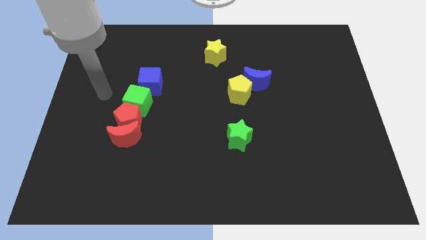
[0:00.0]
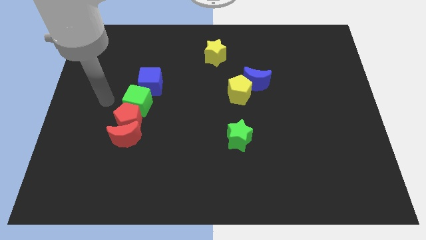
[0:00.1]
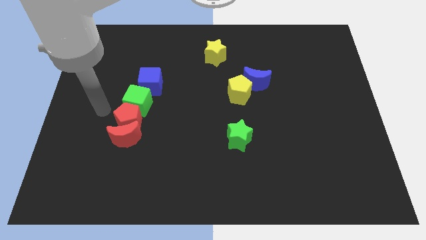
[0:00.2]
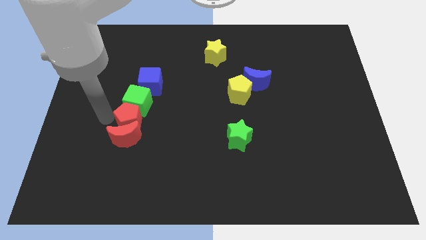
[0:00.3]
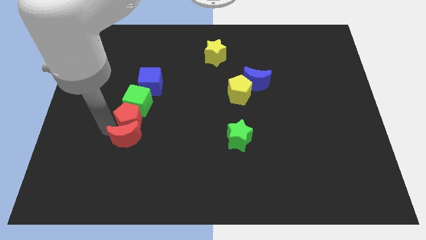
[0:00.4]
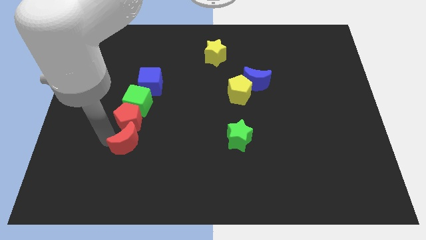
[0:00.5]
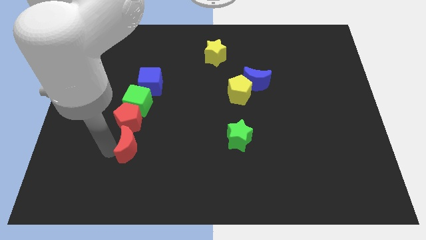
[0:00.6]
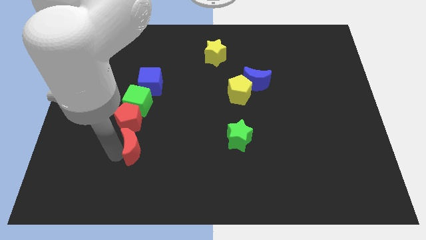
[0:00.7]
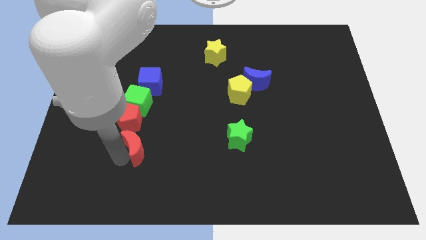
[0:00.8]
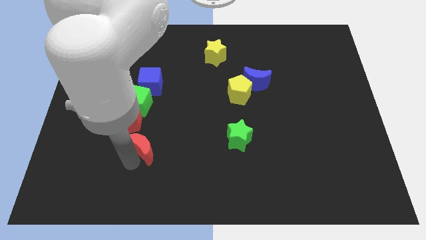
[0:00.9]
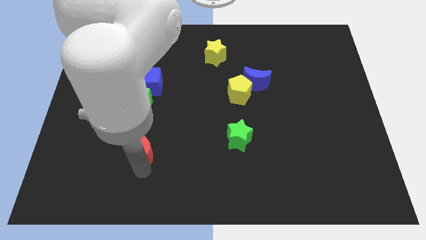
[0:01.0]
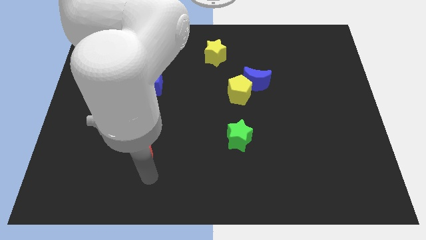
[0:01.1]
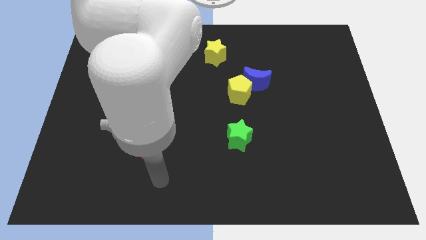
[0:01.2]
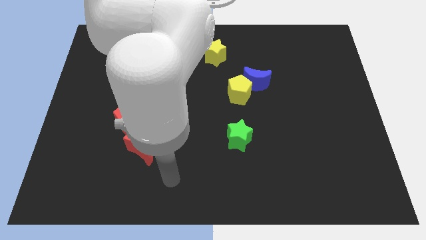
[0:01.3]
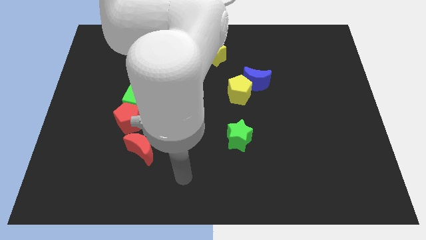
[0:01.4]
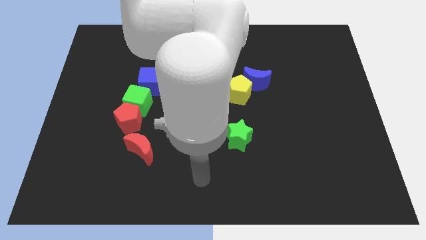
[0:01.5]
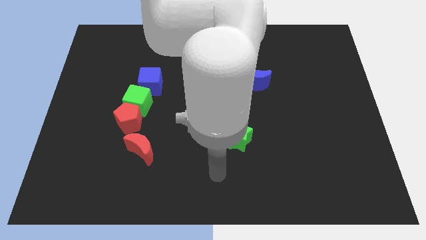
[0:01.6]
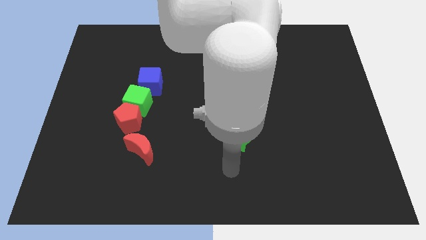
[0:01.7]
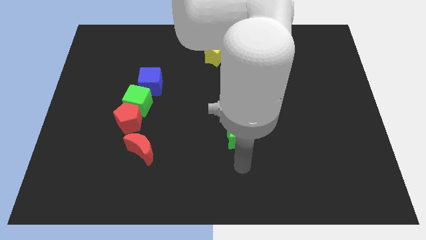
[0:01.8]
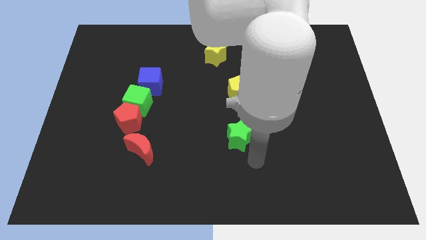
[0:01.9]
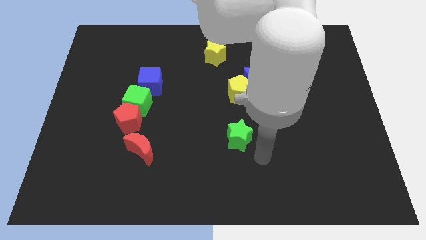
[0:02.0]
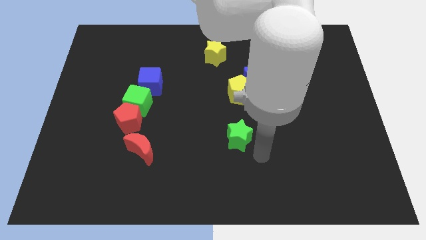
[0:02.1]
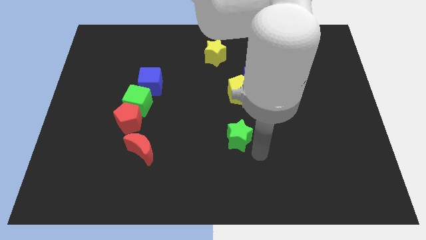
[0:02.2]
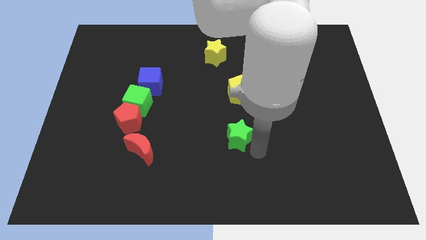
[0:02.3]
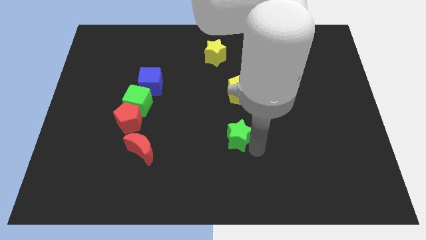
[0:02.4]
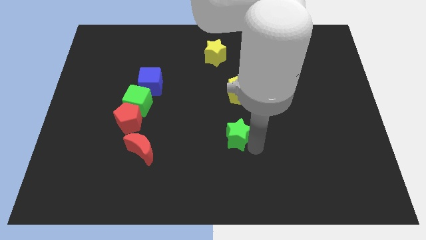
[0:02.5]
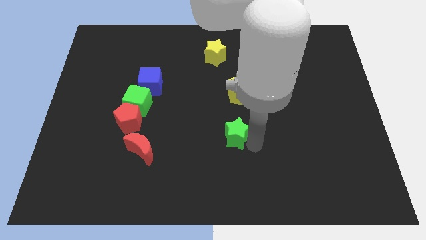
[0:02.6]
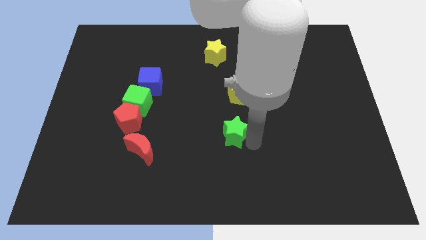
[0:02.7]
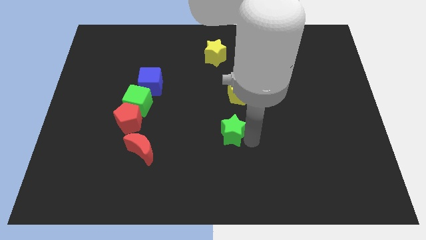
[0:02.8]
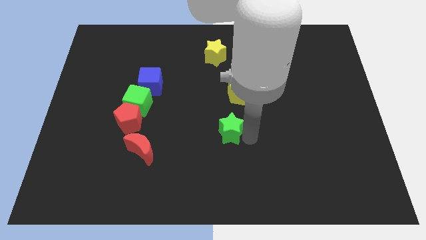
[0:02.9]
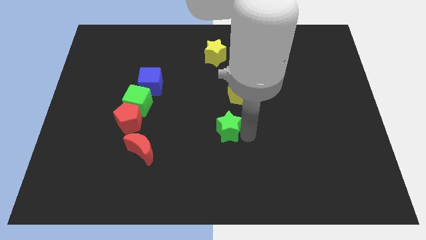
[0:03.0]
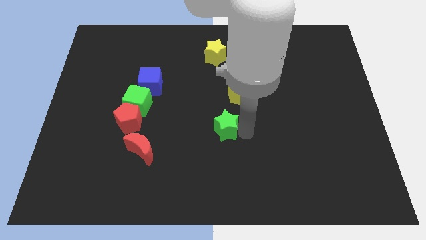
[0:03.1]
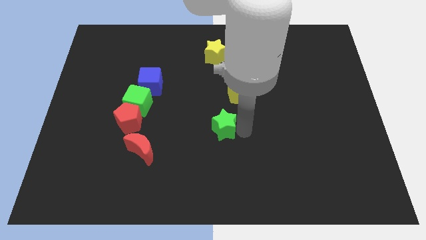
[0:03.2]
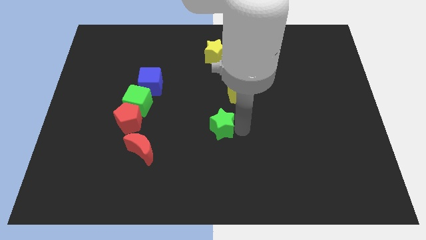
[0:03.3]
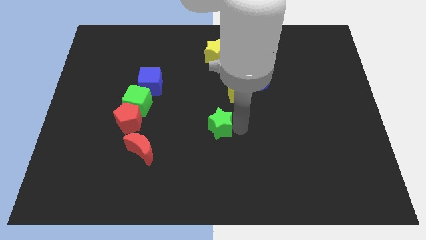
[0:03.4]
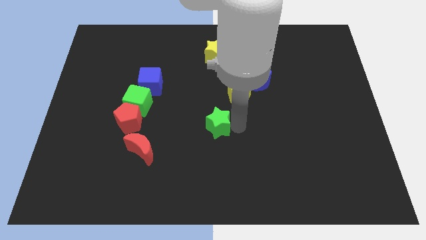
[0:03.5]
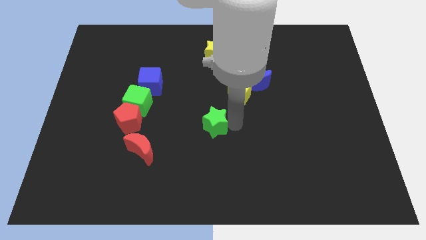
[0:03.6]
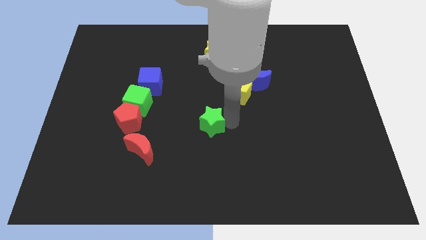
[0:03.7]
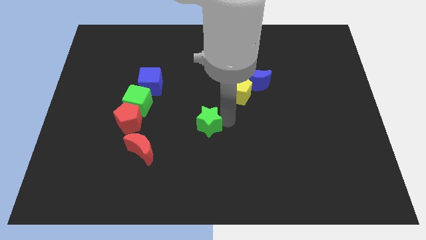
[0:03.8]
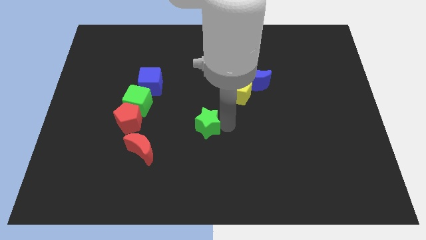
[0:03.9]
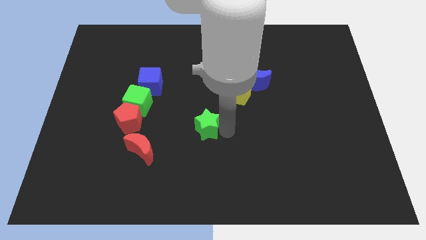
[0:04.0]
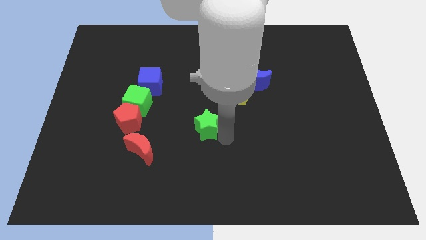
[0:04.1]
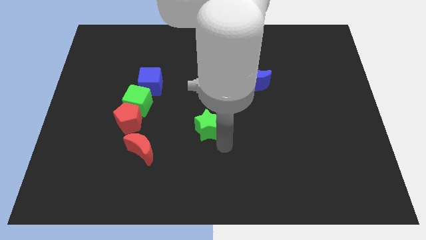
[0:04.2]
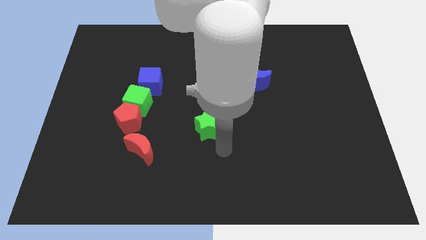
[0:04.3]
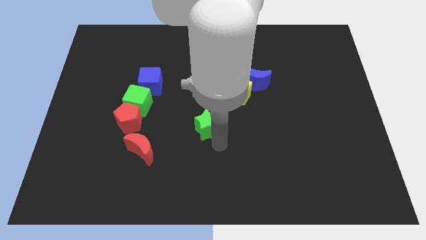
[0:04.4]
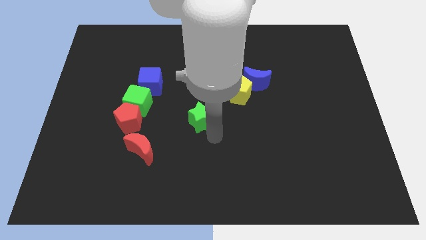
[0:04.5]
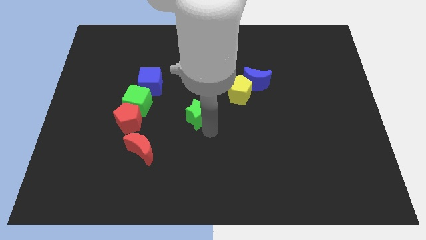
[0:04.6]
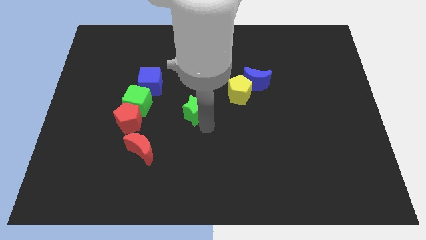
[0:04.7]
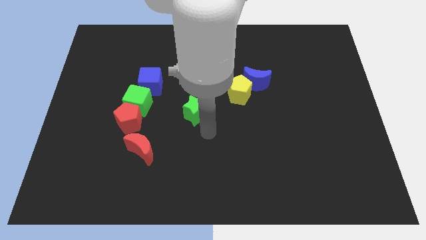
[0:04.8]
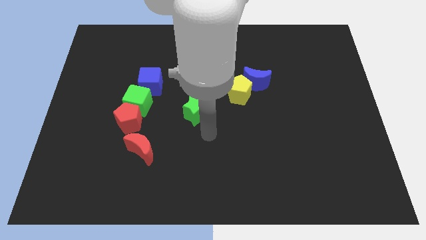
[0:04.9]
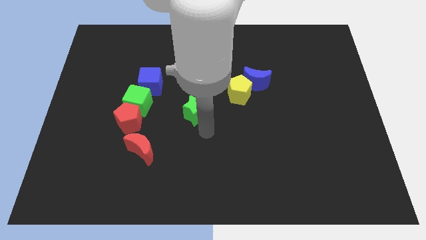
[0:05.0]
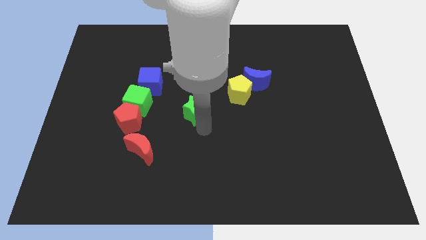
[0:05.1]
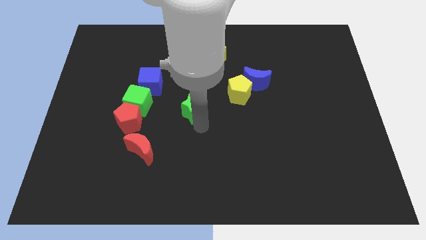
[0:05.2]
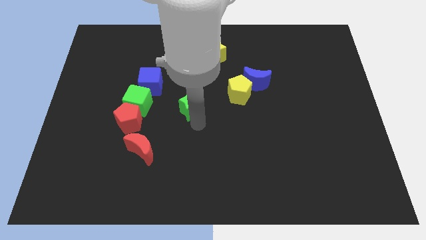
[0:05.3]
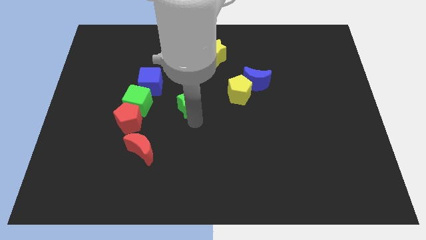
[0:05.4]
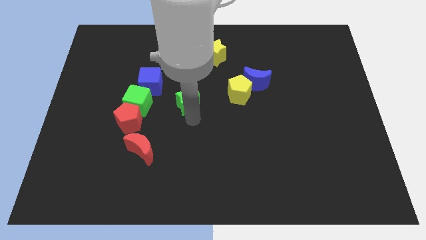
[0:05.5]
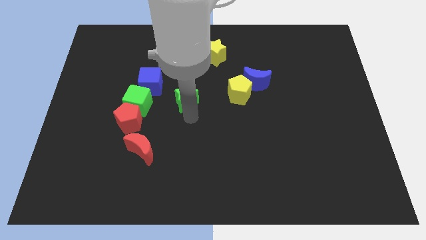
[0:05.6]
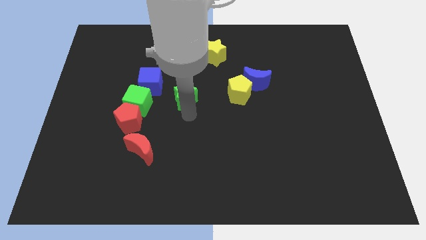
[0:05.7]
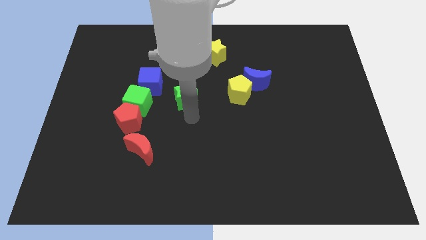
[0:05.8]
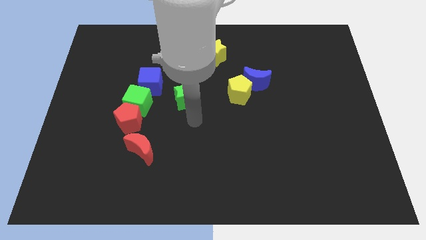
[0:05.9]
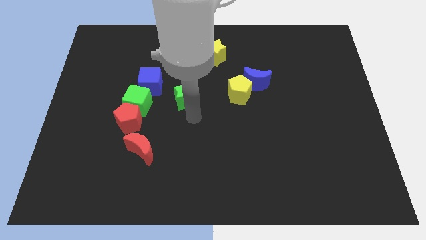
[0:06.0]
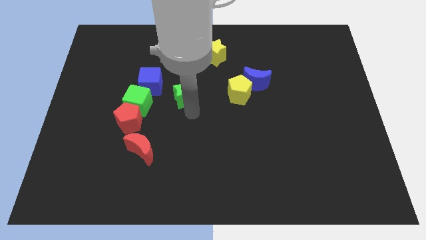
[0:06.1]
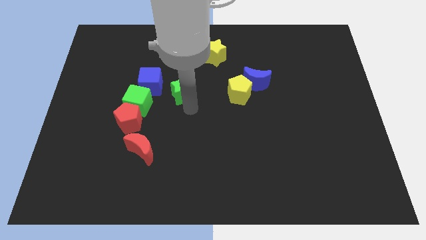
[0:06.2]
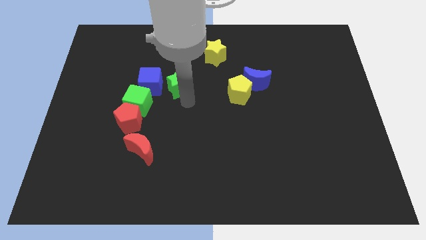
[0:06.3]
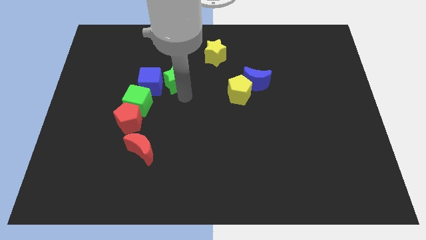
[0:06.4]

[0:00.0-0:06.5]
move the green star to the top right side of the blue cube

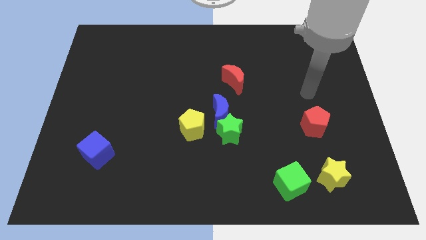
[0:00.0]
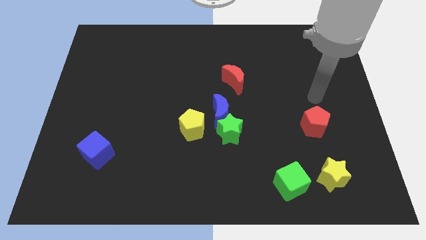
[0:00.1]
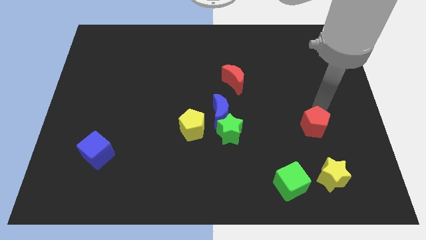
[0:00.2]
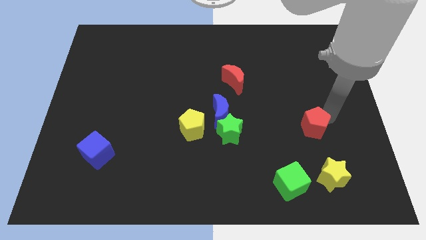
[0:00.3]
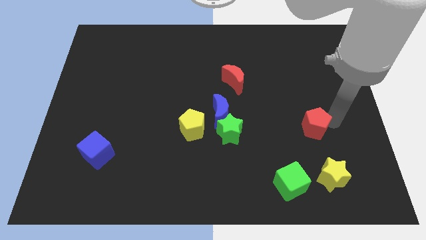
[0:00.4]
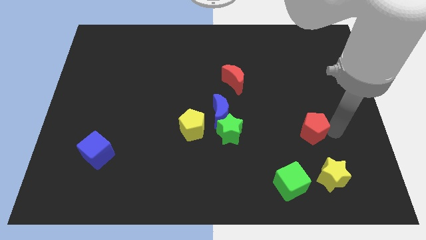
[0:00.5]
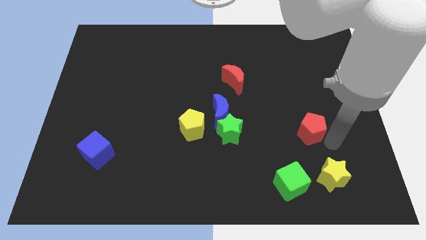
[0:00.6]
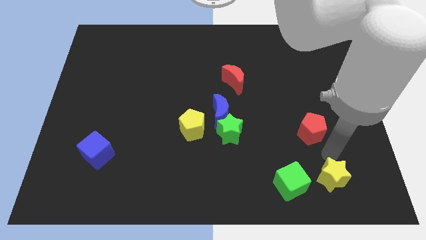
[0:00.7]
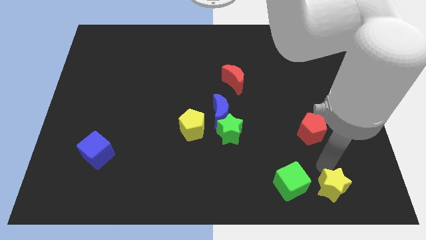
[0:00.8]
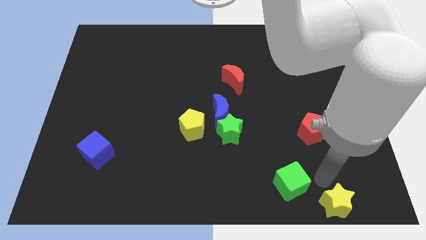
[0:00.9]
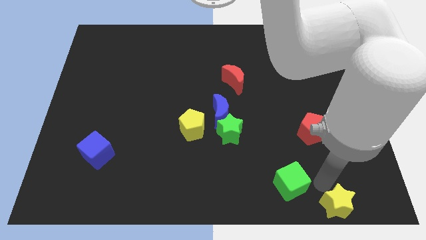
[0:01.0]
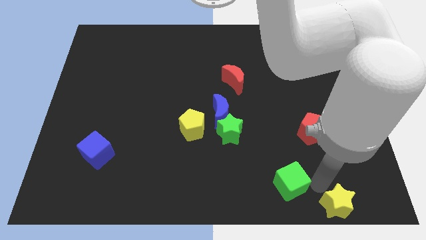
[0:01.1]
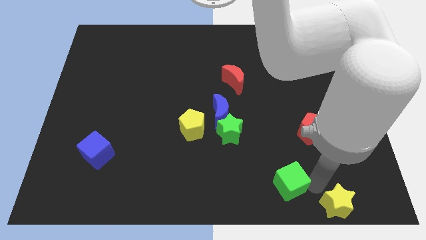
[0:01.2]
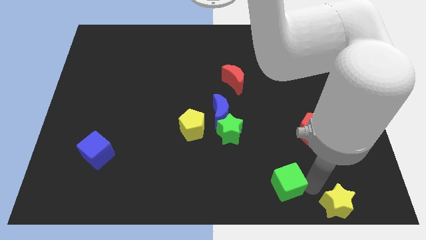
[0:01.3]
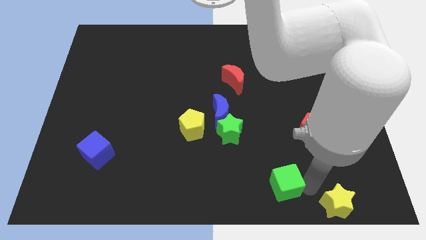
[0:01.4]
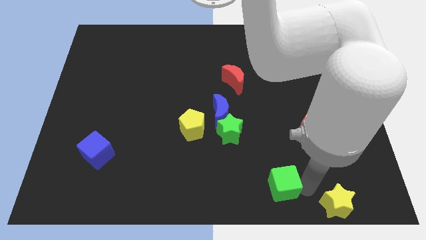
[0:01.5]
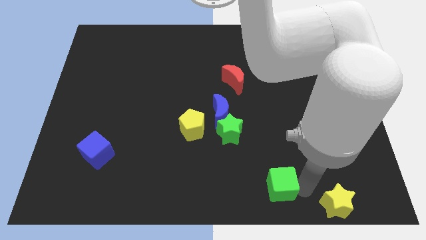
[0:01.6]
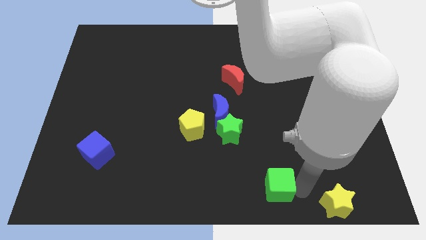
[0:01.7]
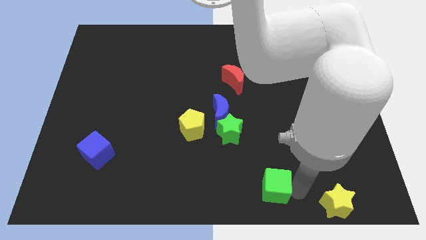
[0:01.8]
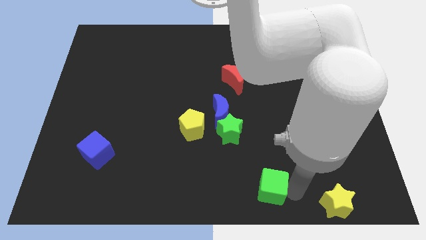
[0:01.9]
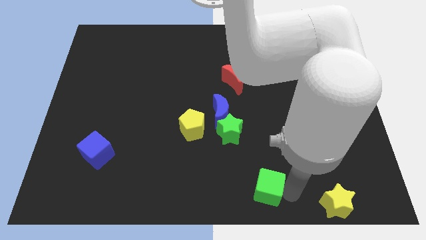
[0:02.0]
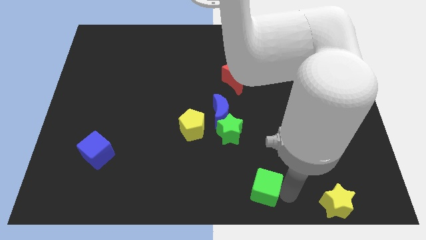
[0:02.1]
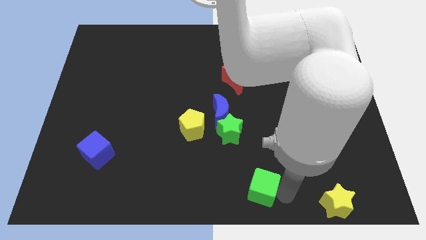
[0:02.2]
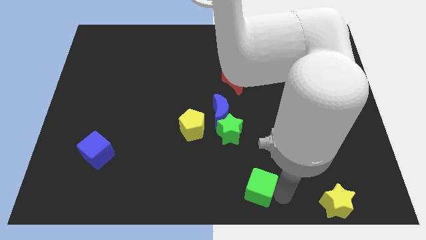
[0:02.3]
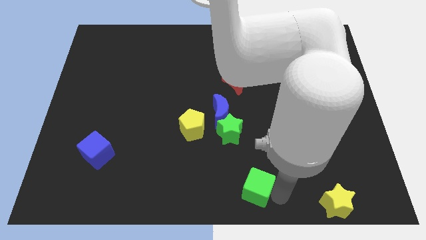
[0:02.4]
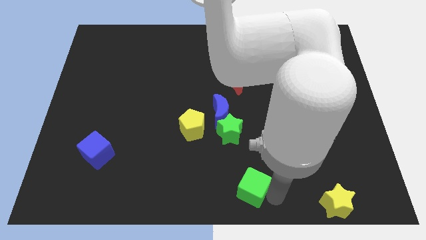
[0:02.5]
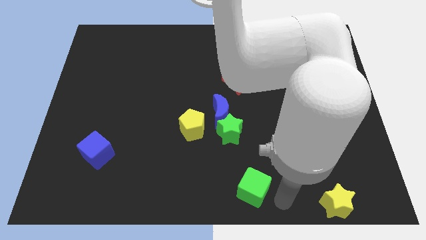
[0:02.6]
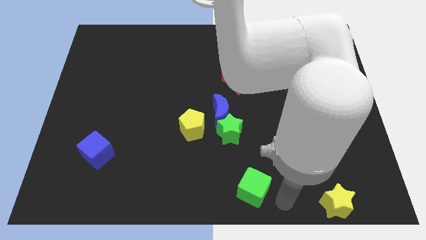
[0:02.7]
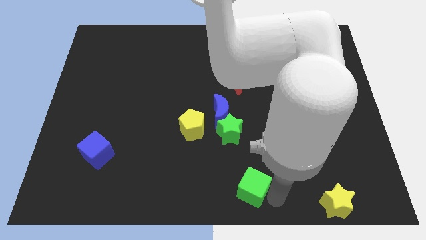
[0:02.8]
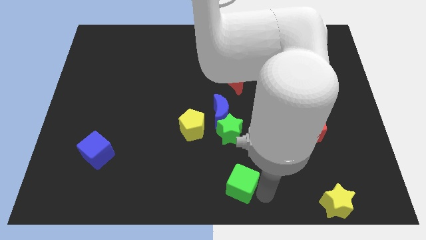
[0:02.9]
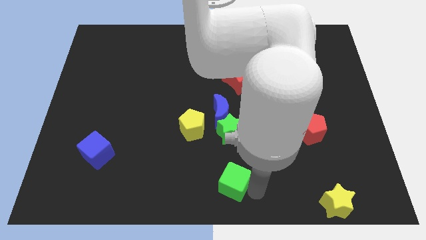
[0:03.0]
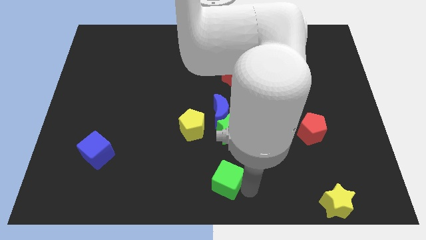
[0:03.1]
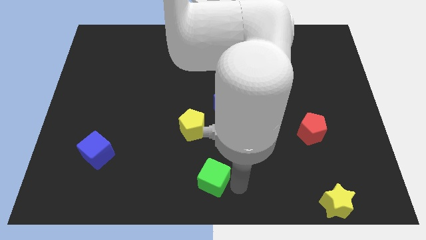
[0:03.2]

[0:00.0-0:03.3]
slide the green cube to the bottom of the yellow pentagon
